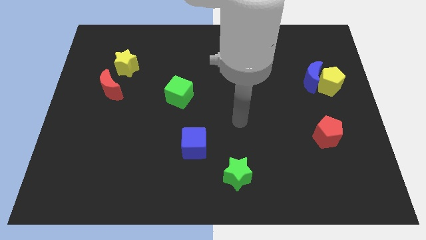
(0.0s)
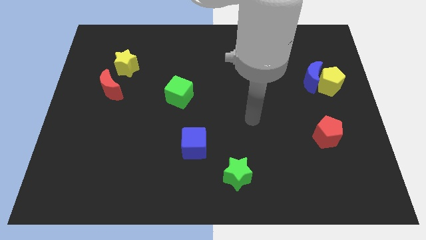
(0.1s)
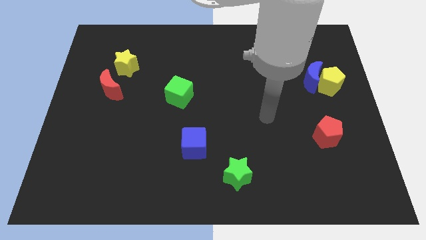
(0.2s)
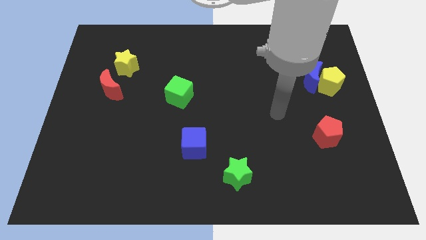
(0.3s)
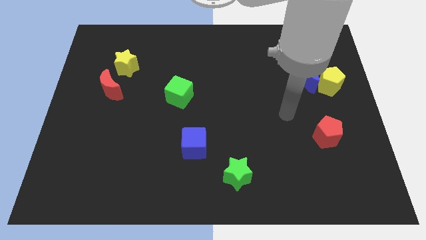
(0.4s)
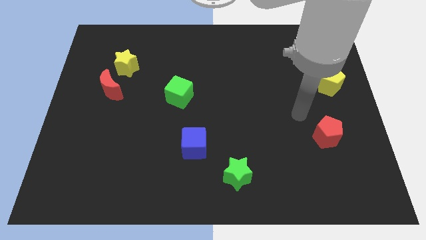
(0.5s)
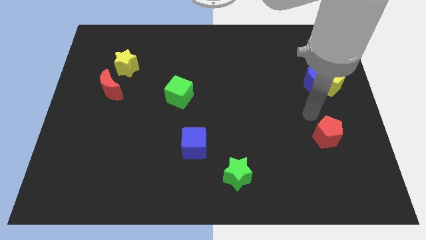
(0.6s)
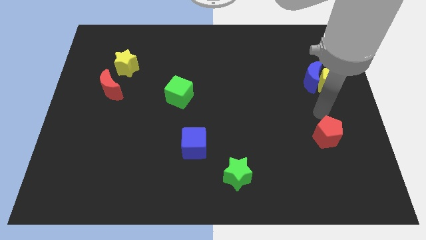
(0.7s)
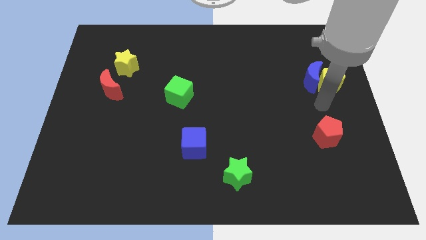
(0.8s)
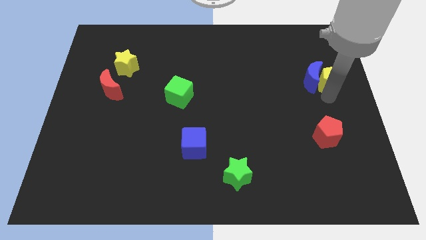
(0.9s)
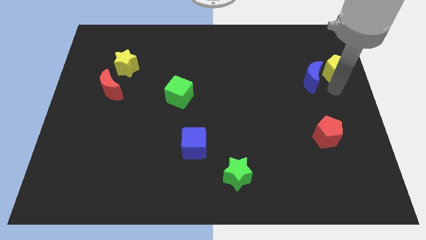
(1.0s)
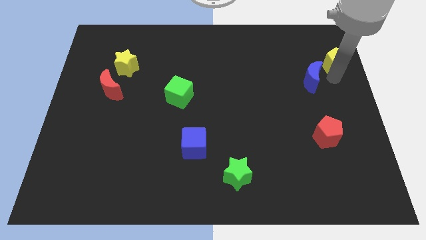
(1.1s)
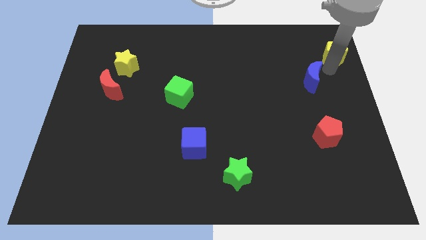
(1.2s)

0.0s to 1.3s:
separate the blue moon from the yellow pentagon

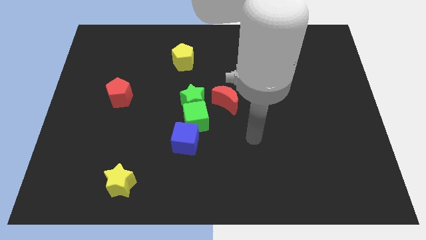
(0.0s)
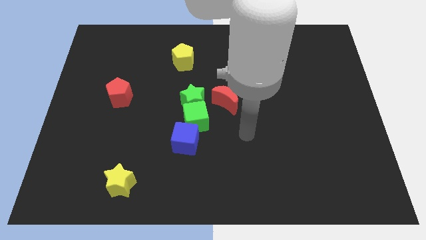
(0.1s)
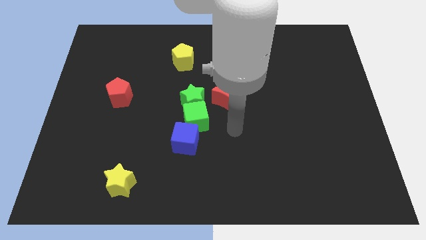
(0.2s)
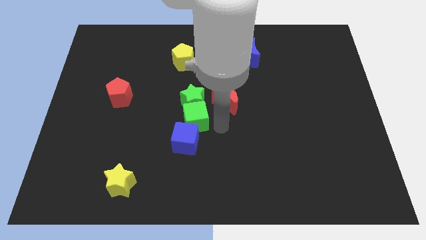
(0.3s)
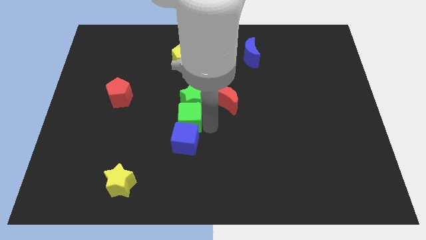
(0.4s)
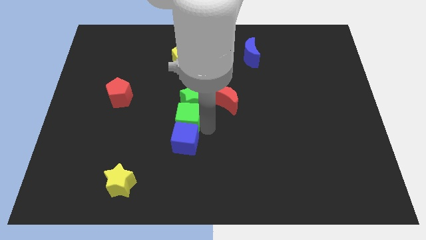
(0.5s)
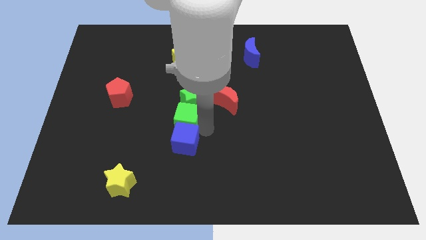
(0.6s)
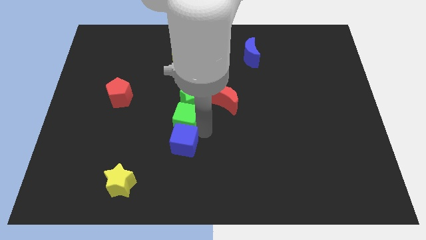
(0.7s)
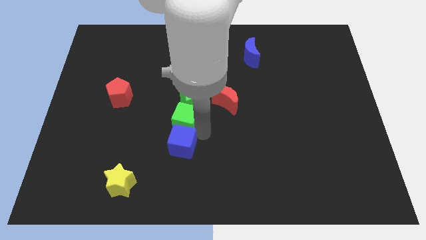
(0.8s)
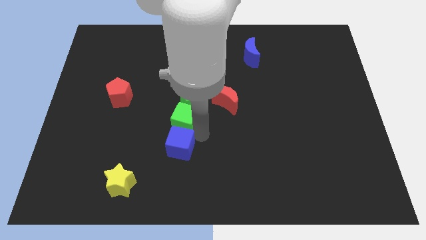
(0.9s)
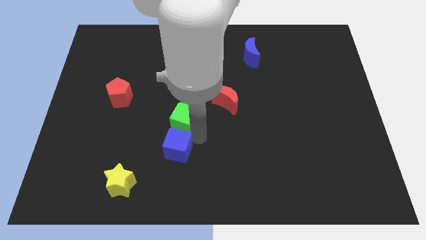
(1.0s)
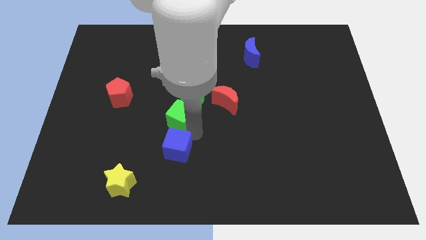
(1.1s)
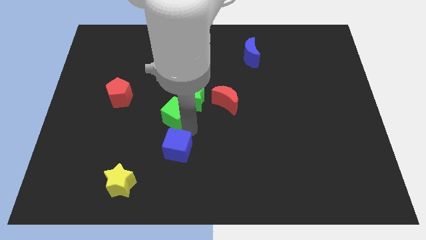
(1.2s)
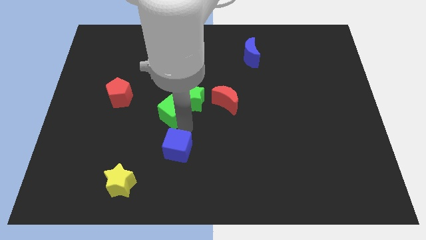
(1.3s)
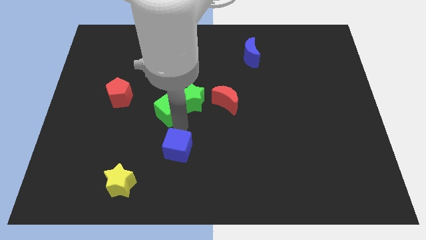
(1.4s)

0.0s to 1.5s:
separate the blue cube from the green cube

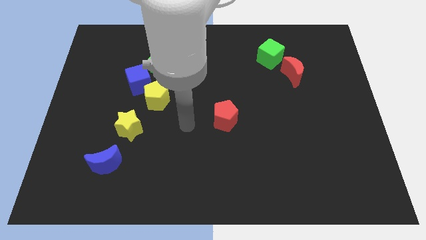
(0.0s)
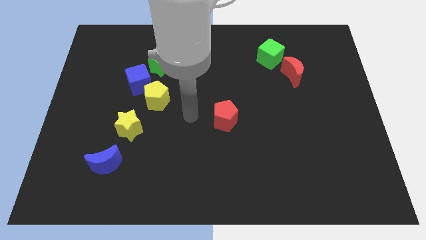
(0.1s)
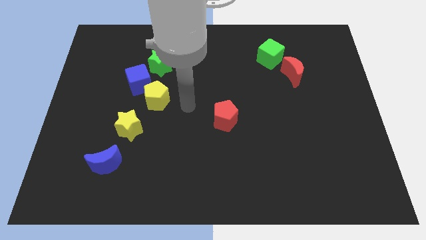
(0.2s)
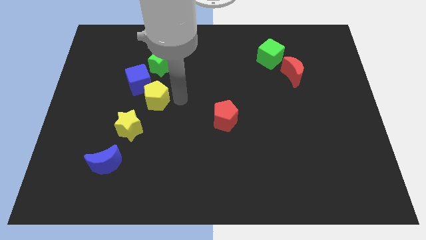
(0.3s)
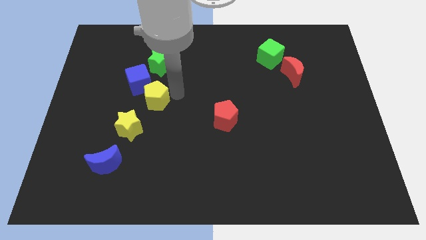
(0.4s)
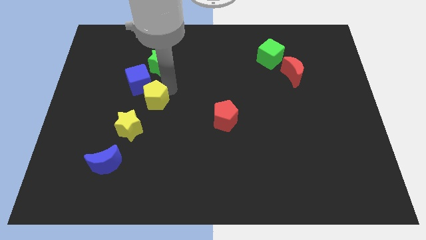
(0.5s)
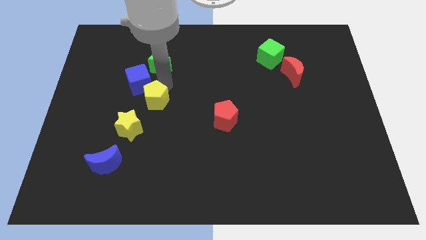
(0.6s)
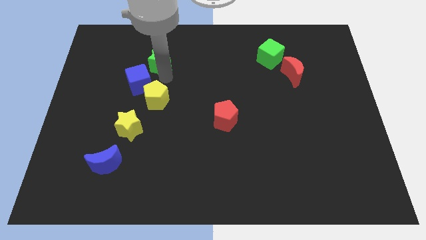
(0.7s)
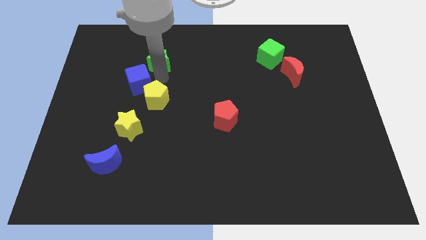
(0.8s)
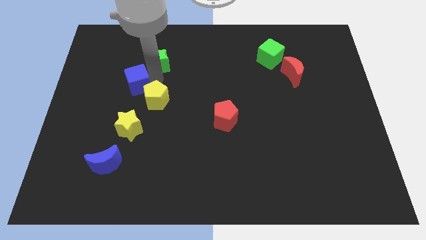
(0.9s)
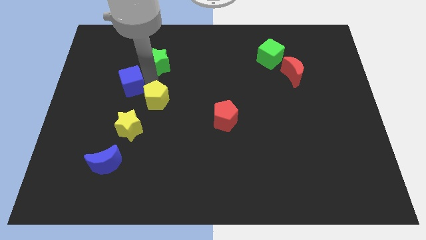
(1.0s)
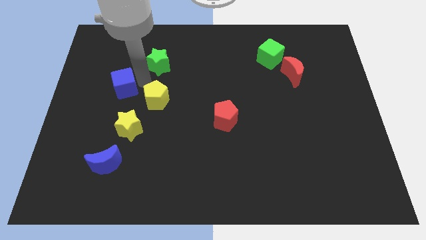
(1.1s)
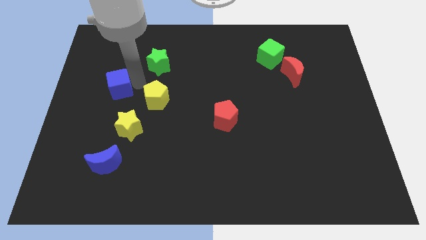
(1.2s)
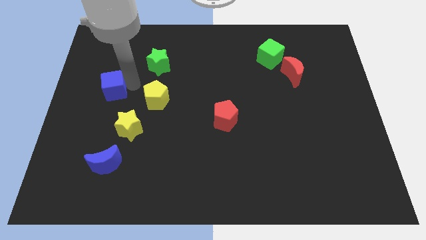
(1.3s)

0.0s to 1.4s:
pull the blue cube apart from the yellow pentagon and green star

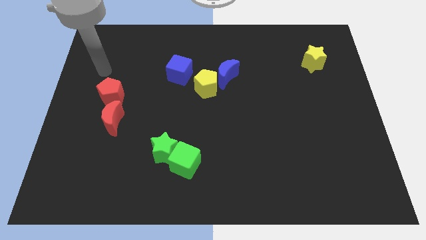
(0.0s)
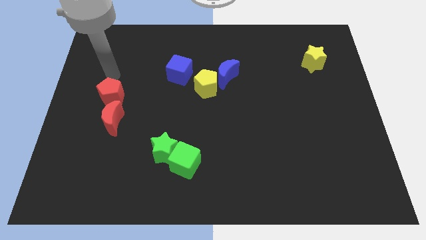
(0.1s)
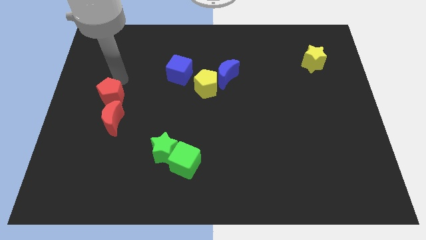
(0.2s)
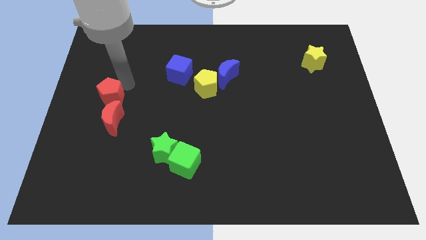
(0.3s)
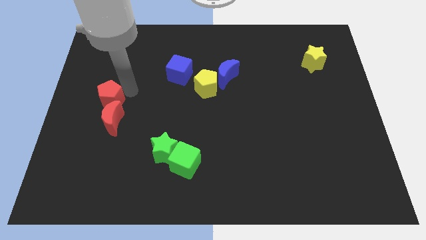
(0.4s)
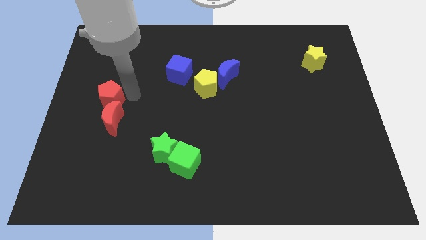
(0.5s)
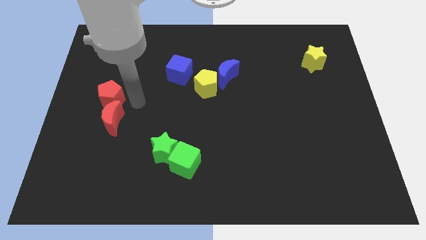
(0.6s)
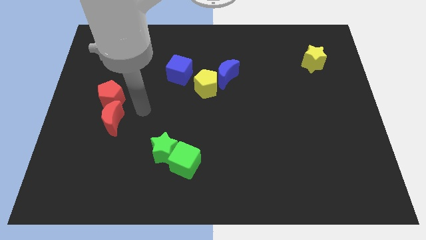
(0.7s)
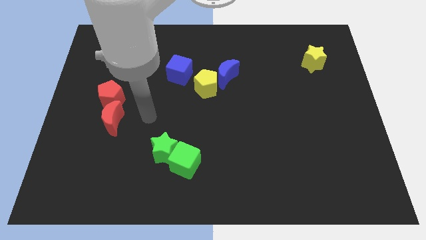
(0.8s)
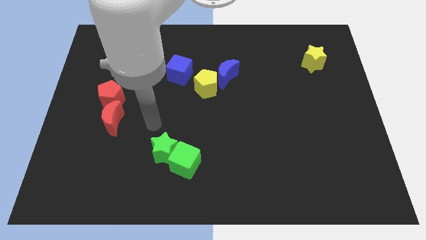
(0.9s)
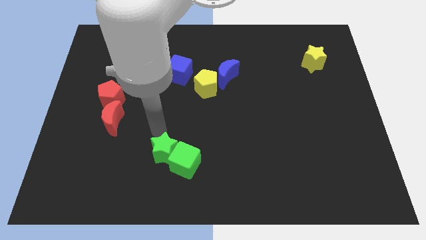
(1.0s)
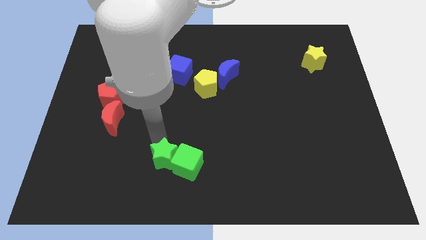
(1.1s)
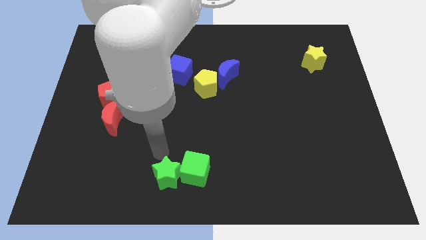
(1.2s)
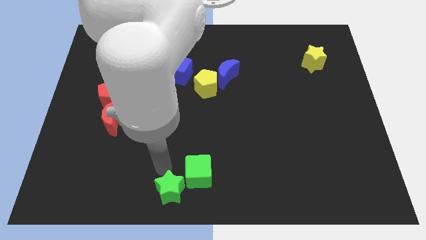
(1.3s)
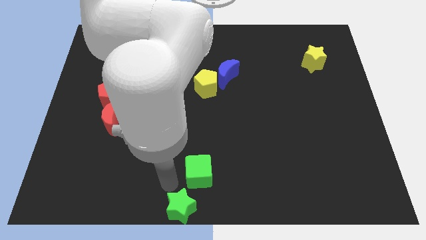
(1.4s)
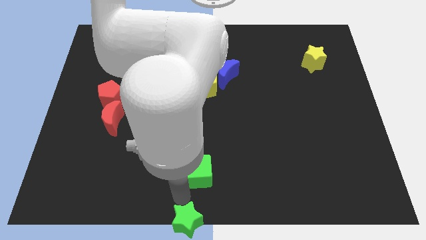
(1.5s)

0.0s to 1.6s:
pull the green cube apart from the green star

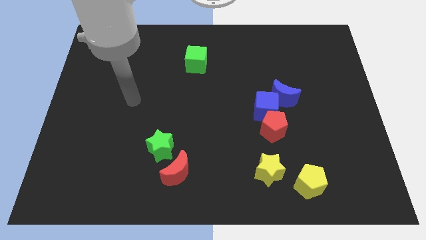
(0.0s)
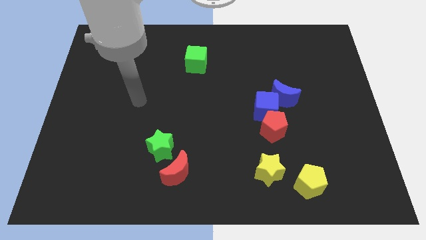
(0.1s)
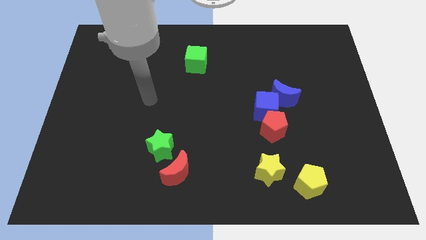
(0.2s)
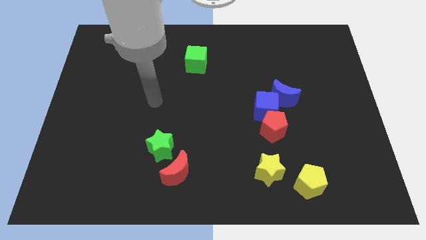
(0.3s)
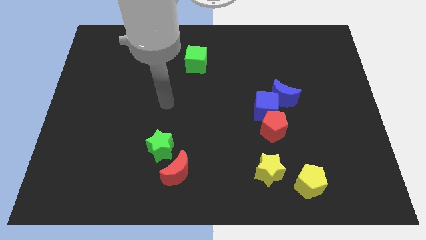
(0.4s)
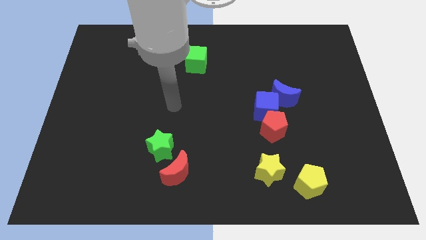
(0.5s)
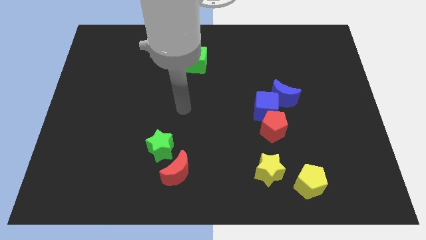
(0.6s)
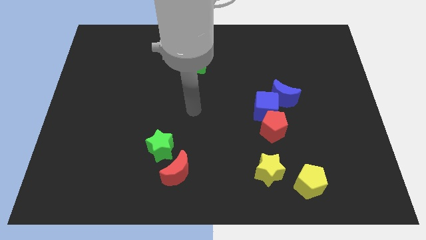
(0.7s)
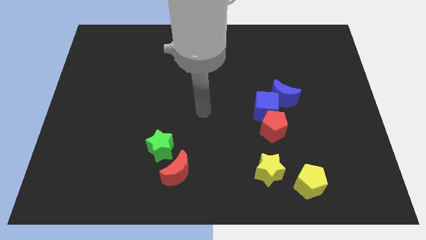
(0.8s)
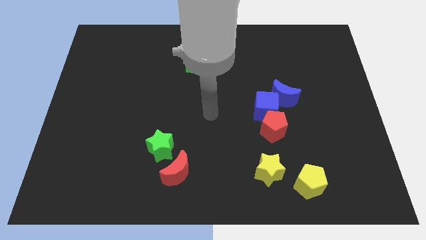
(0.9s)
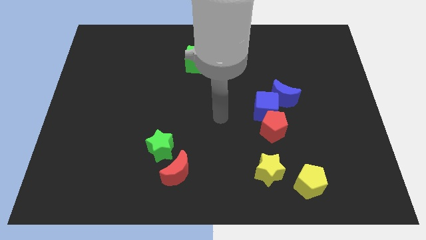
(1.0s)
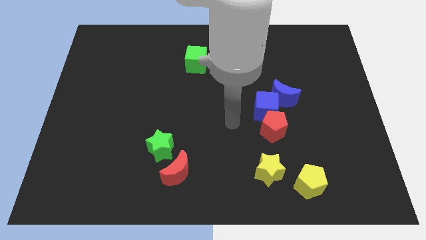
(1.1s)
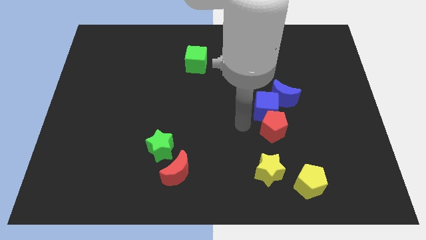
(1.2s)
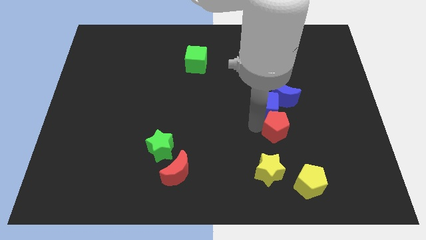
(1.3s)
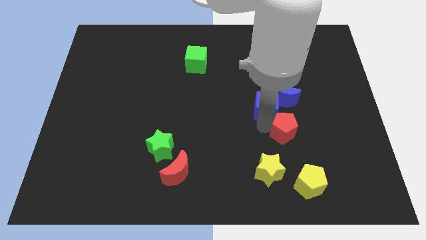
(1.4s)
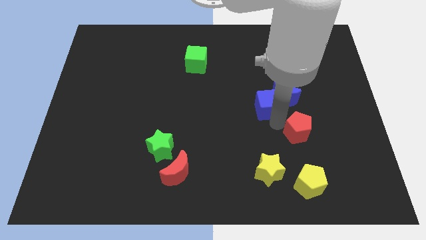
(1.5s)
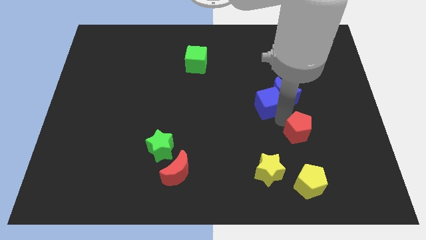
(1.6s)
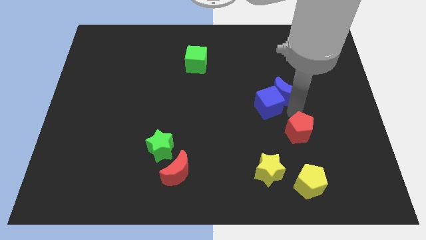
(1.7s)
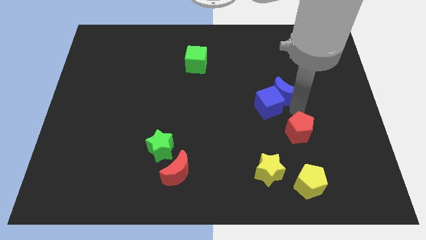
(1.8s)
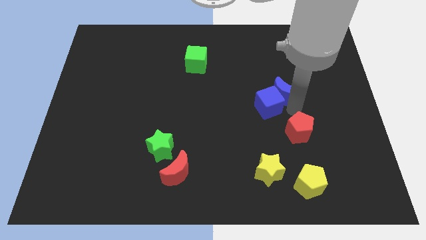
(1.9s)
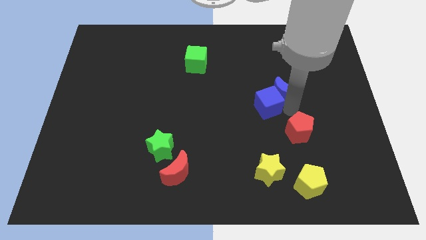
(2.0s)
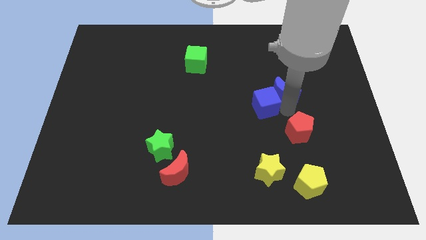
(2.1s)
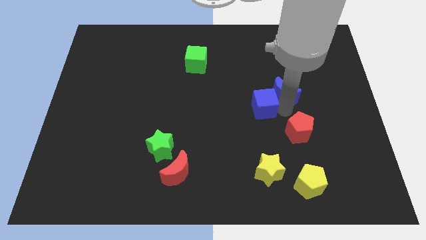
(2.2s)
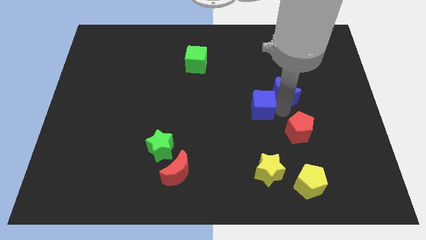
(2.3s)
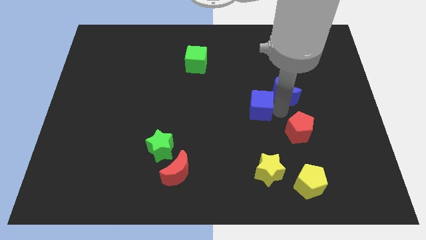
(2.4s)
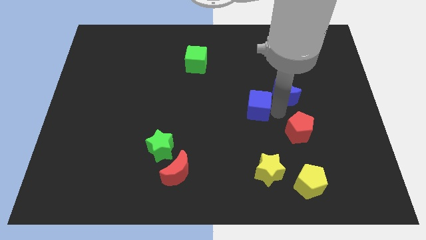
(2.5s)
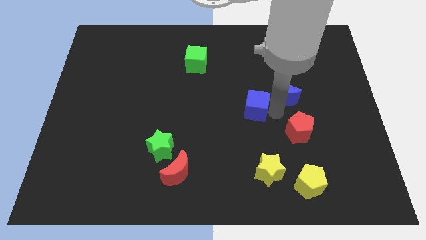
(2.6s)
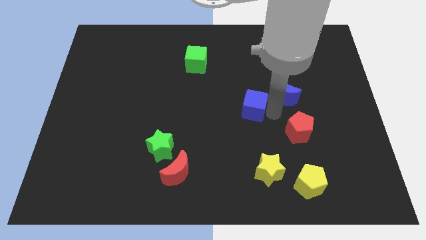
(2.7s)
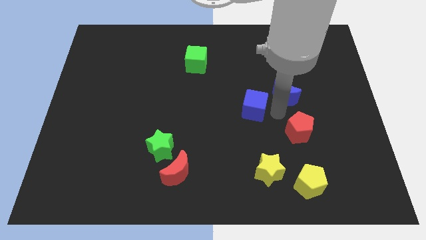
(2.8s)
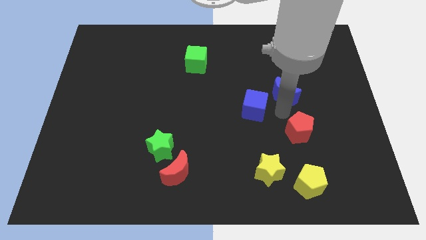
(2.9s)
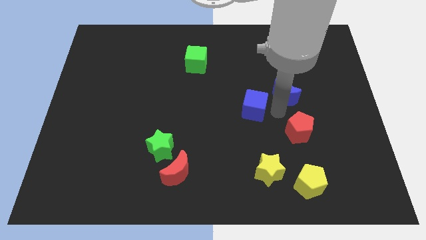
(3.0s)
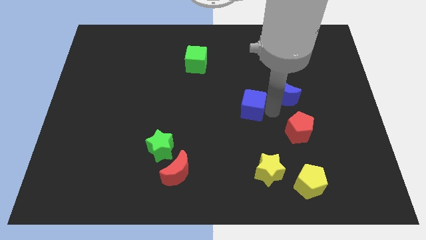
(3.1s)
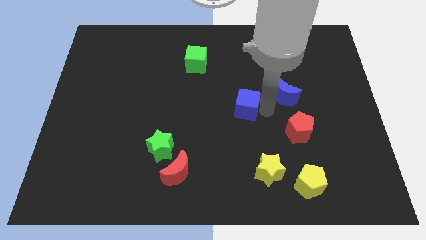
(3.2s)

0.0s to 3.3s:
separate the blue cube from the red pentagon and blue moon

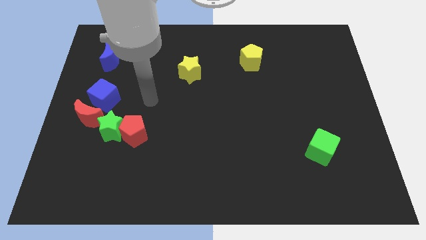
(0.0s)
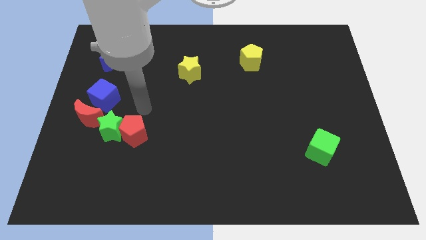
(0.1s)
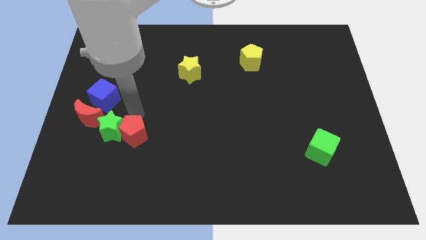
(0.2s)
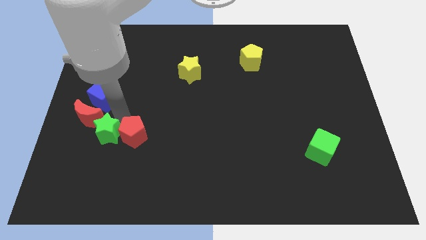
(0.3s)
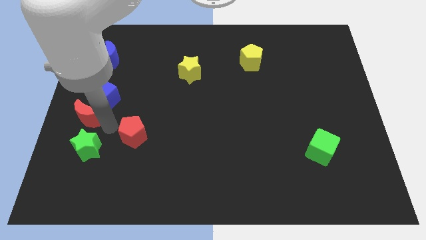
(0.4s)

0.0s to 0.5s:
pull the red pentagon apart from the green star
